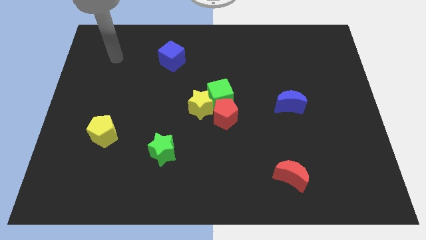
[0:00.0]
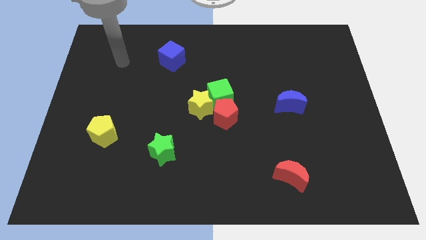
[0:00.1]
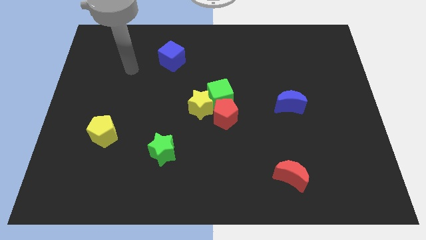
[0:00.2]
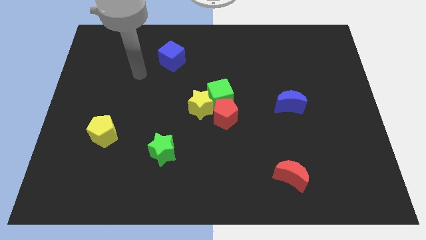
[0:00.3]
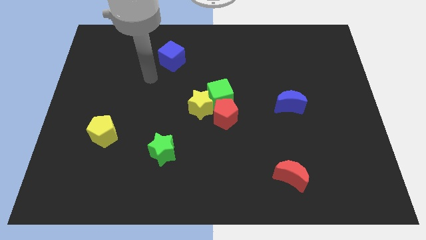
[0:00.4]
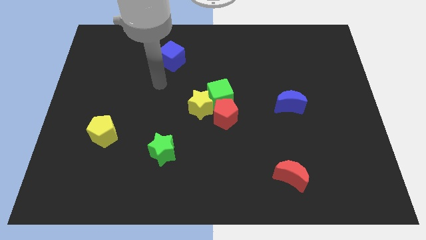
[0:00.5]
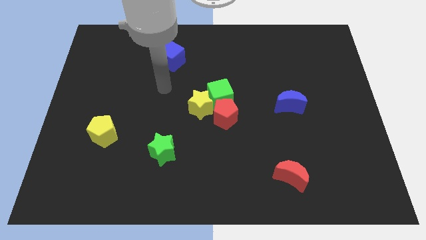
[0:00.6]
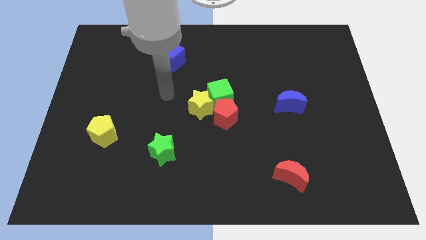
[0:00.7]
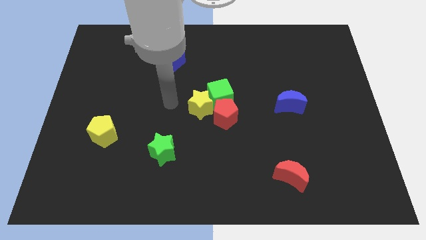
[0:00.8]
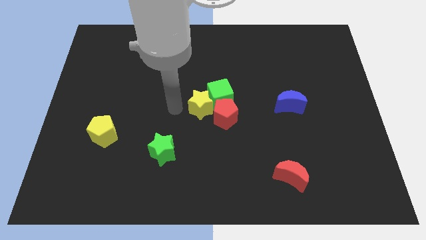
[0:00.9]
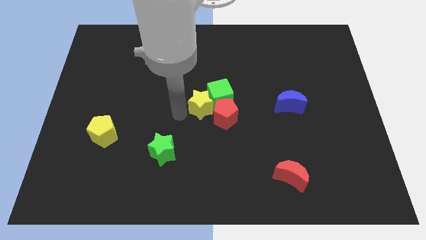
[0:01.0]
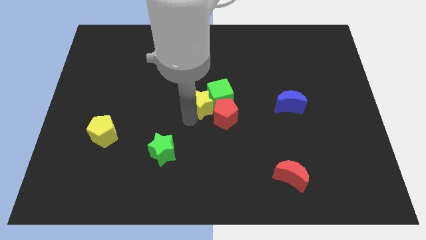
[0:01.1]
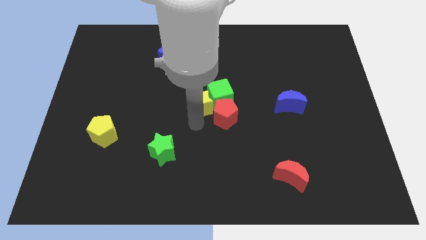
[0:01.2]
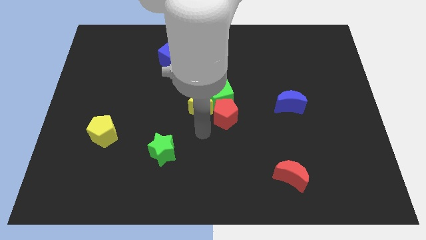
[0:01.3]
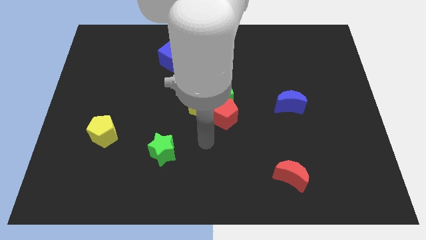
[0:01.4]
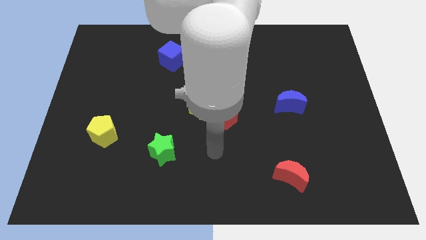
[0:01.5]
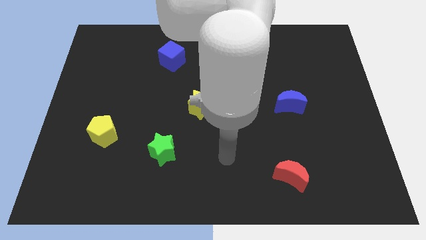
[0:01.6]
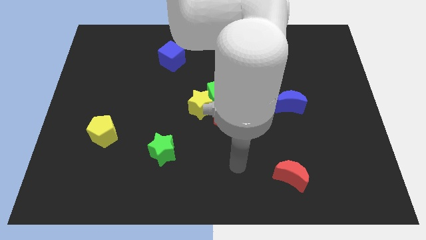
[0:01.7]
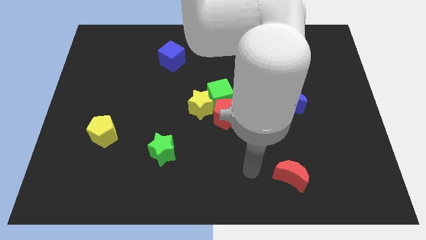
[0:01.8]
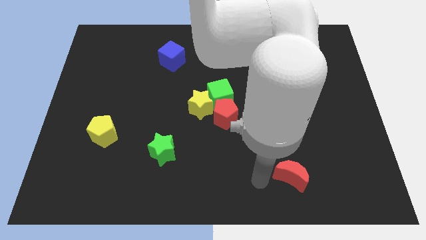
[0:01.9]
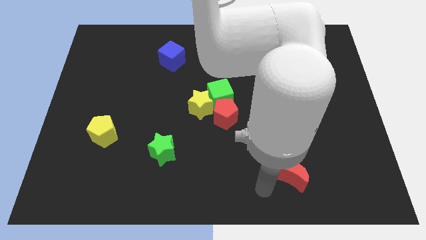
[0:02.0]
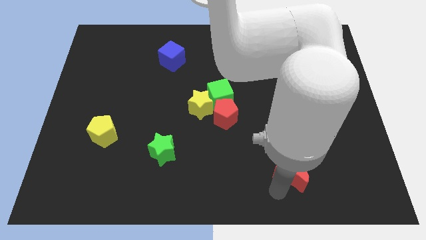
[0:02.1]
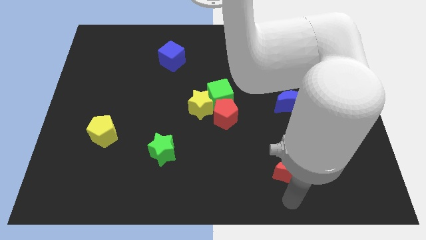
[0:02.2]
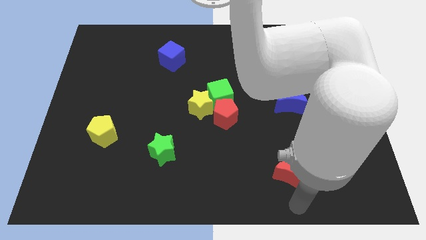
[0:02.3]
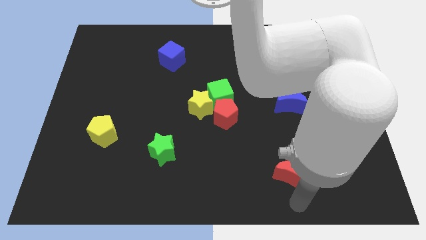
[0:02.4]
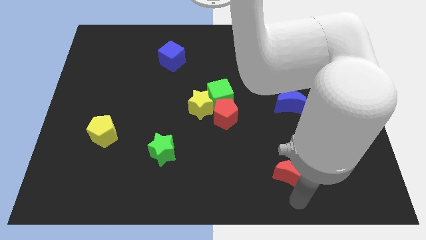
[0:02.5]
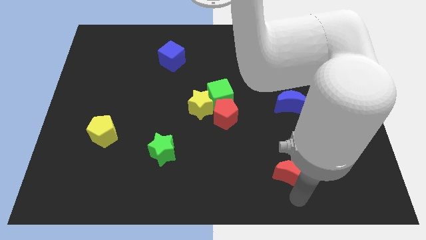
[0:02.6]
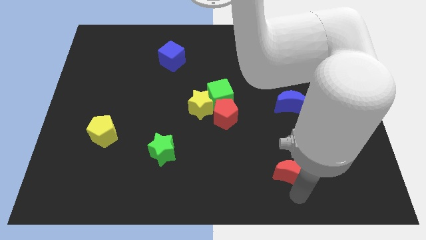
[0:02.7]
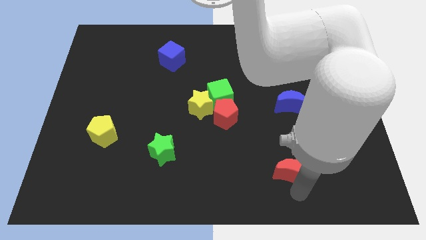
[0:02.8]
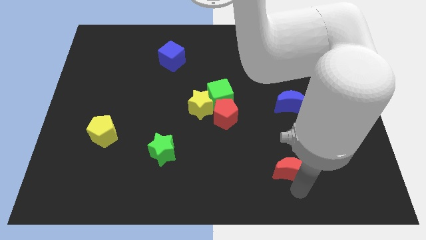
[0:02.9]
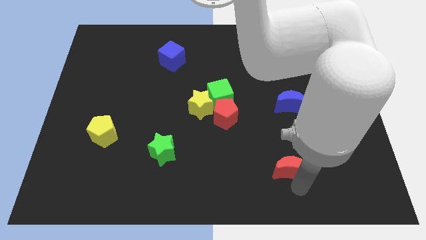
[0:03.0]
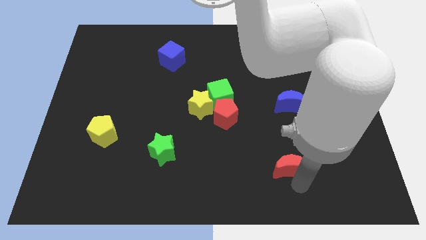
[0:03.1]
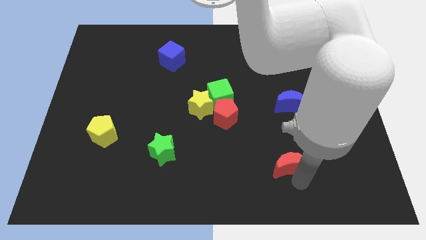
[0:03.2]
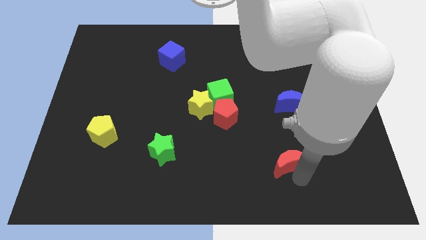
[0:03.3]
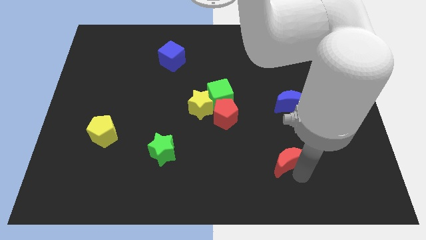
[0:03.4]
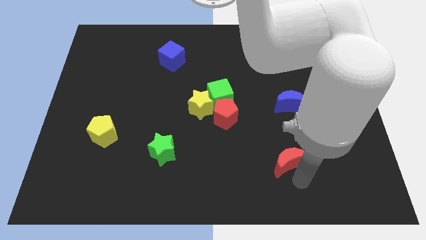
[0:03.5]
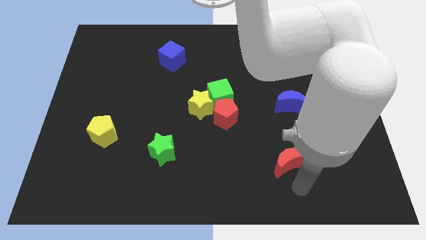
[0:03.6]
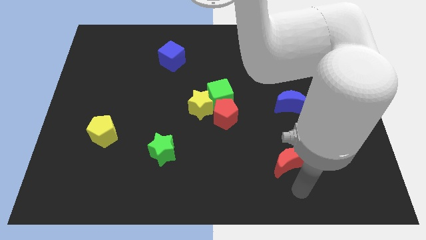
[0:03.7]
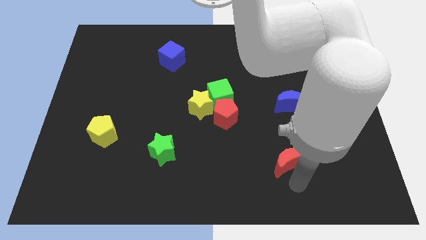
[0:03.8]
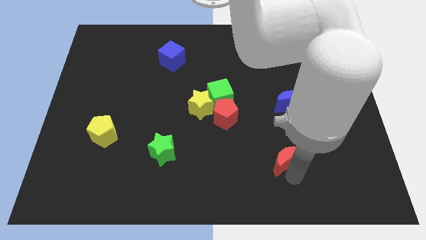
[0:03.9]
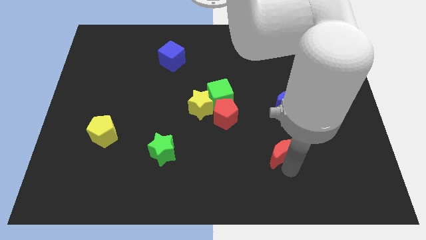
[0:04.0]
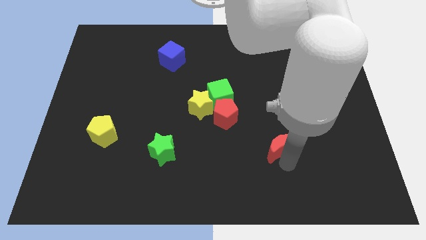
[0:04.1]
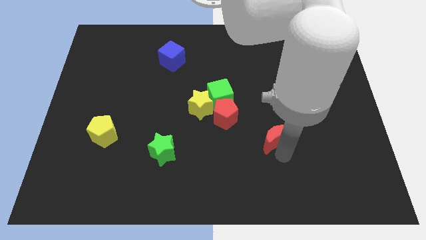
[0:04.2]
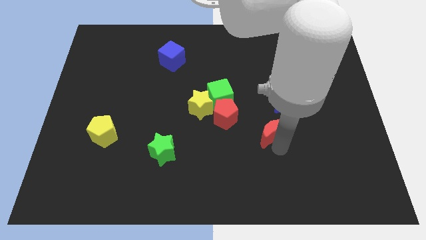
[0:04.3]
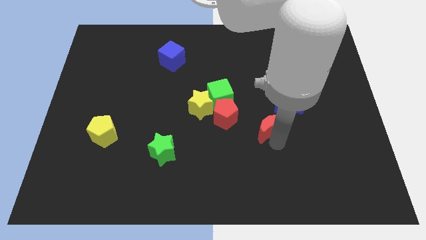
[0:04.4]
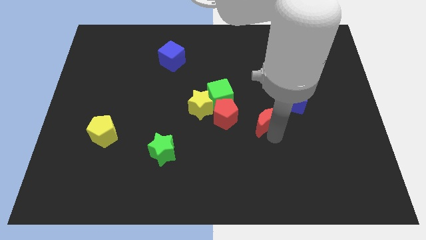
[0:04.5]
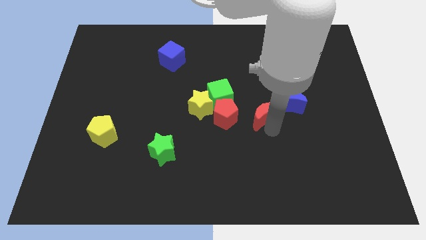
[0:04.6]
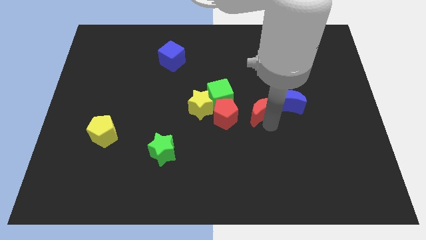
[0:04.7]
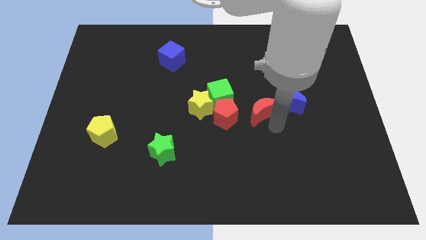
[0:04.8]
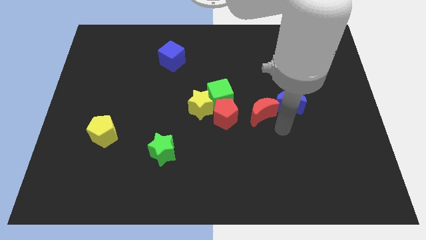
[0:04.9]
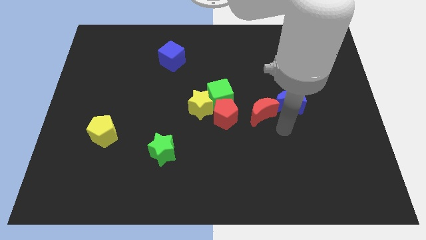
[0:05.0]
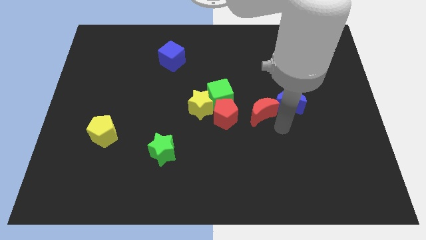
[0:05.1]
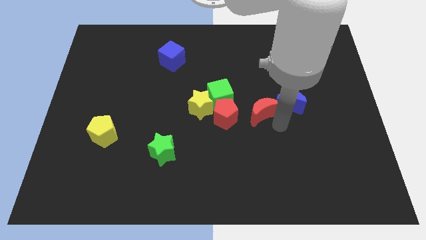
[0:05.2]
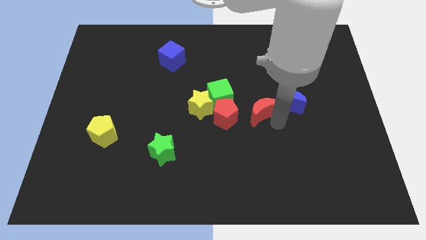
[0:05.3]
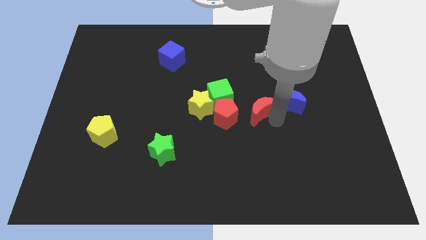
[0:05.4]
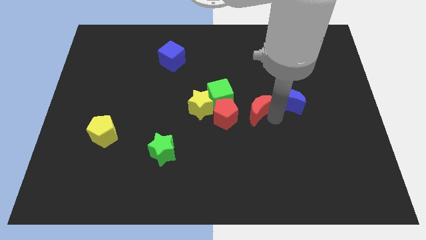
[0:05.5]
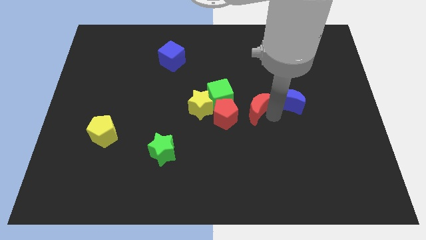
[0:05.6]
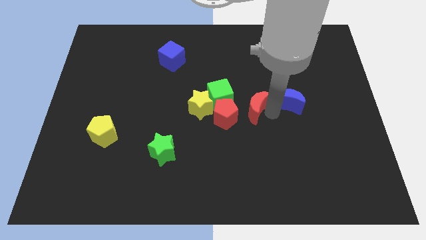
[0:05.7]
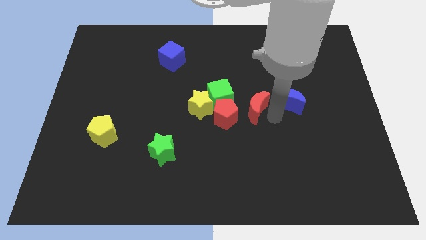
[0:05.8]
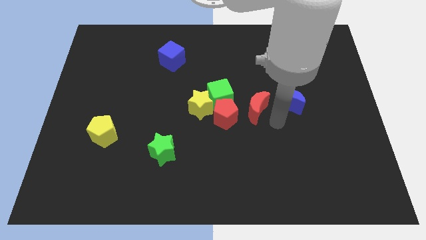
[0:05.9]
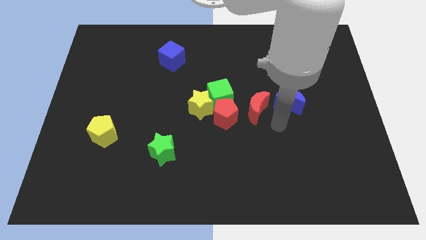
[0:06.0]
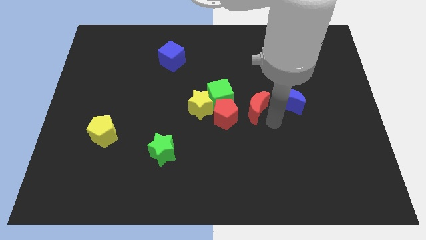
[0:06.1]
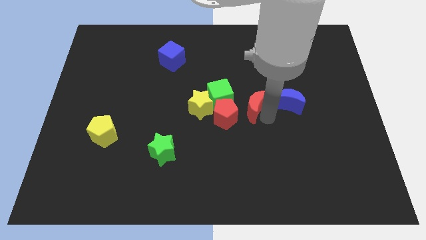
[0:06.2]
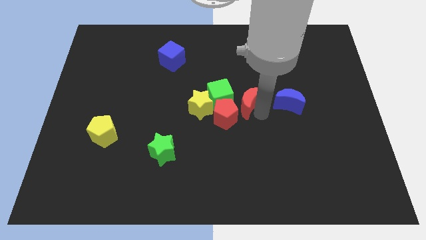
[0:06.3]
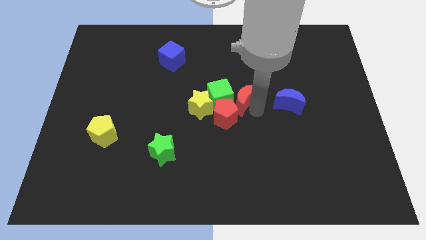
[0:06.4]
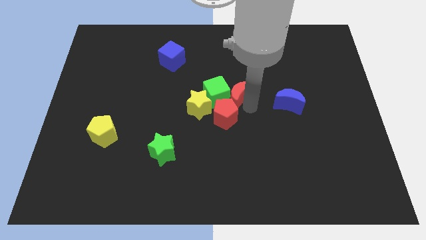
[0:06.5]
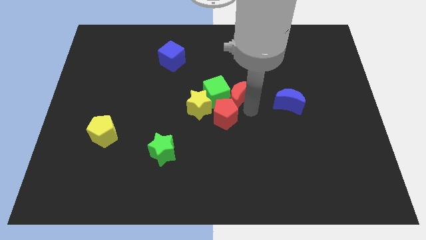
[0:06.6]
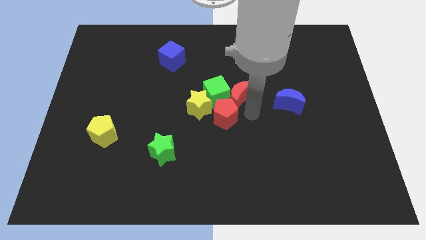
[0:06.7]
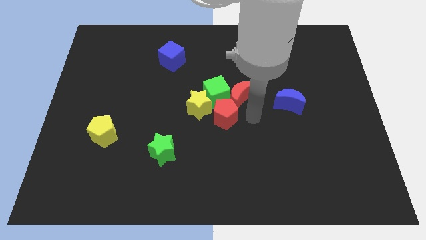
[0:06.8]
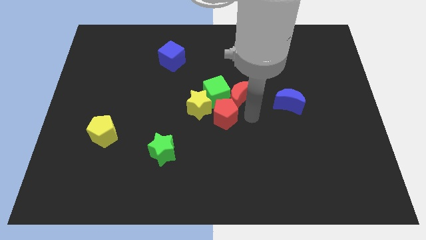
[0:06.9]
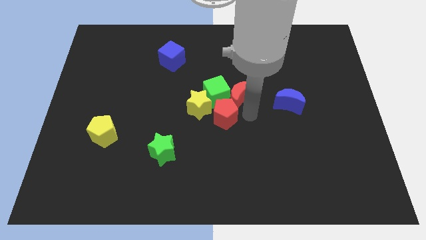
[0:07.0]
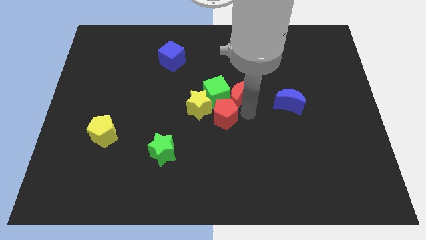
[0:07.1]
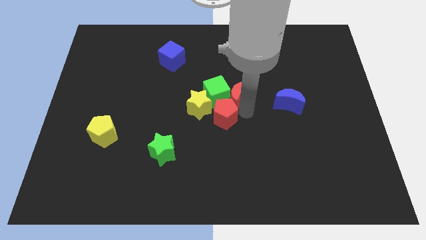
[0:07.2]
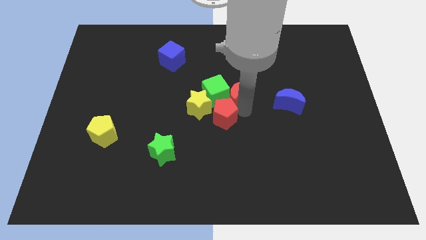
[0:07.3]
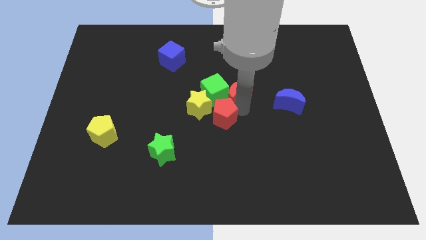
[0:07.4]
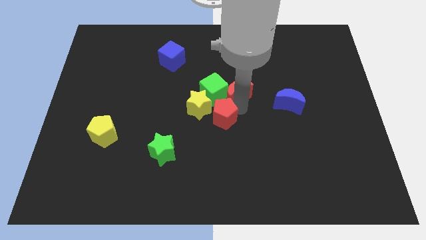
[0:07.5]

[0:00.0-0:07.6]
move the red moon up and left diagonally

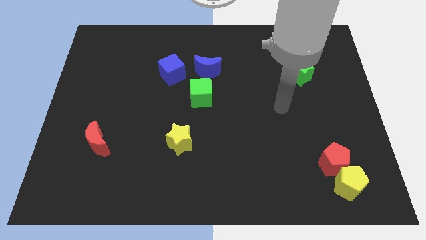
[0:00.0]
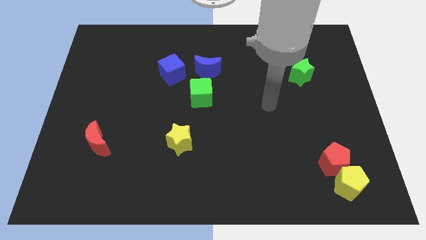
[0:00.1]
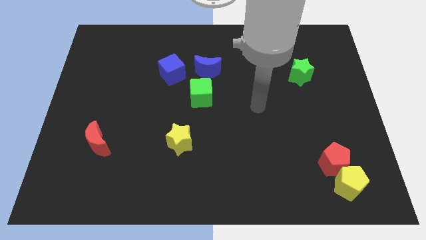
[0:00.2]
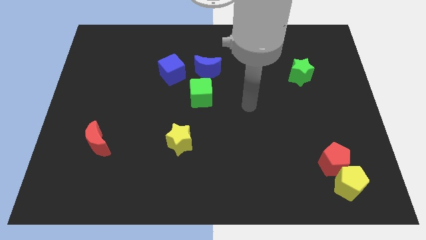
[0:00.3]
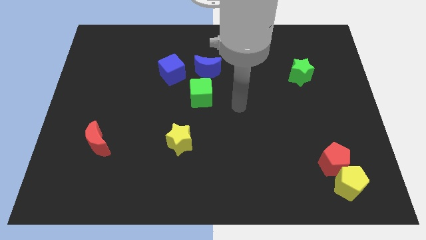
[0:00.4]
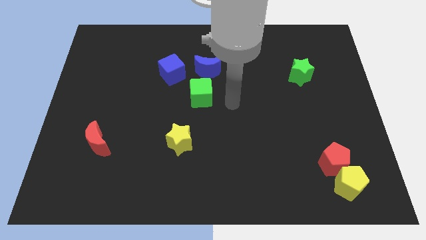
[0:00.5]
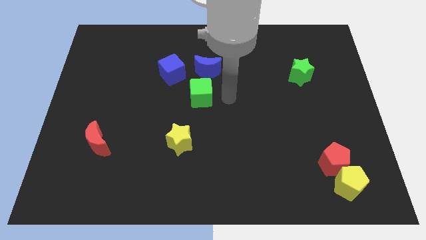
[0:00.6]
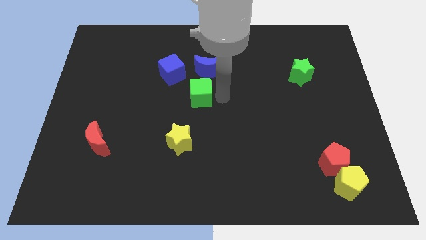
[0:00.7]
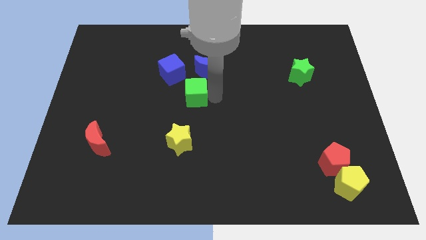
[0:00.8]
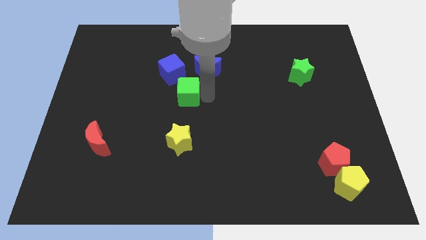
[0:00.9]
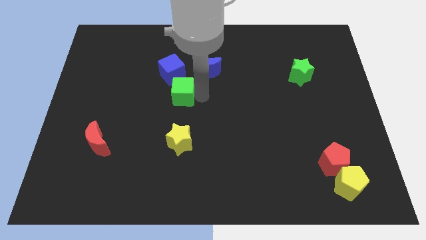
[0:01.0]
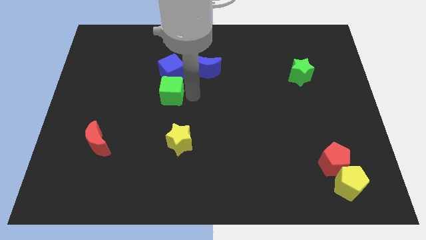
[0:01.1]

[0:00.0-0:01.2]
move the green cube left a little bit
